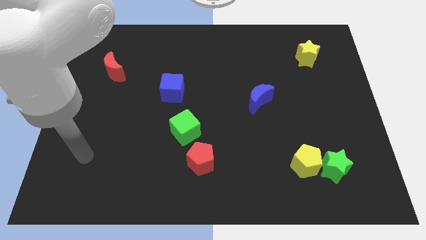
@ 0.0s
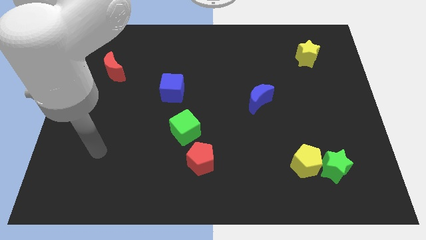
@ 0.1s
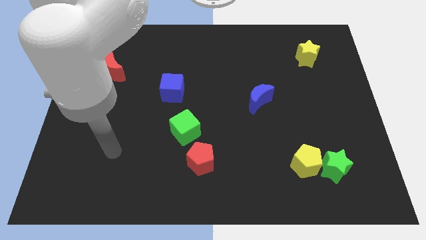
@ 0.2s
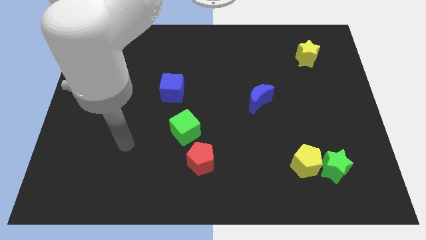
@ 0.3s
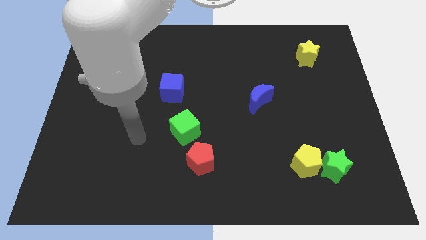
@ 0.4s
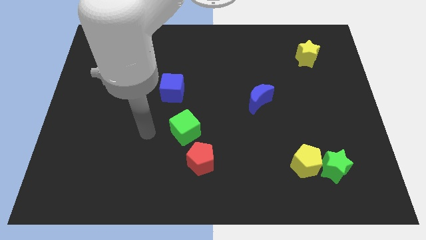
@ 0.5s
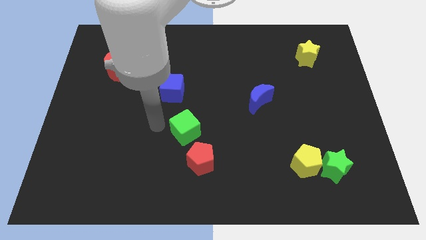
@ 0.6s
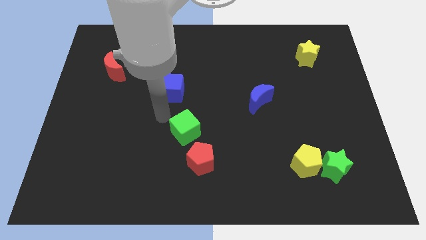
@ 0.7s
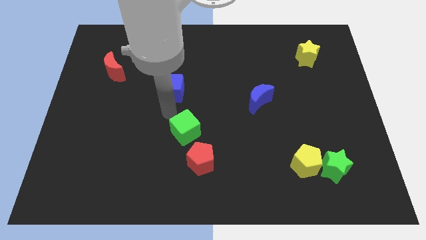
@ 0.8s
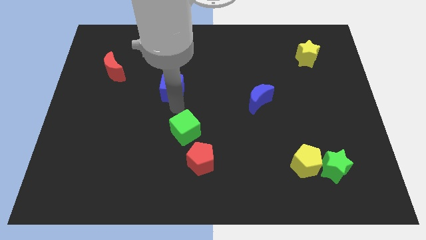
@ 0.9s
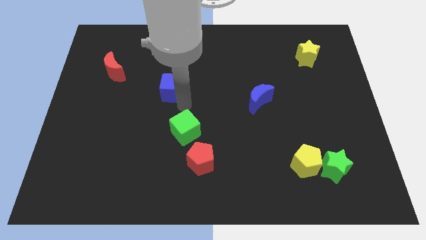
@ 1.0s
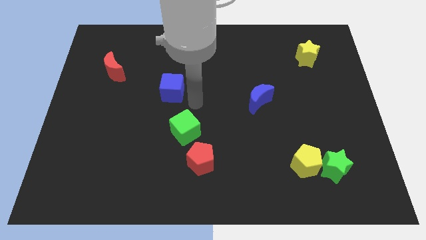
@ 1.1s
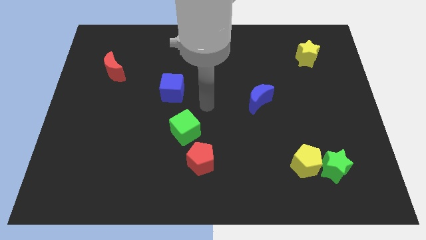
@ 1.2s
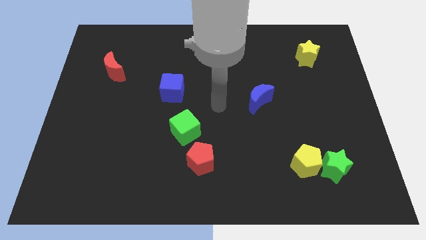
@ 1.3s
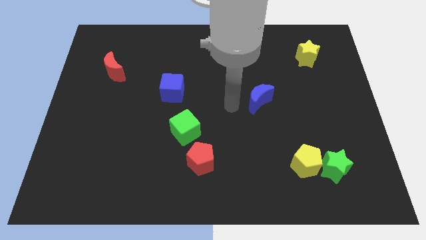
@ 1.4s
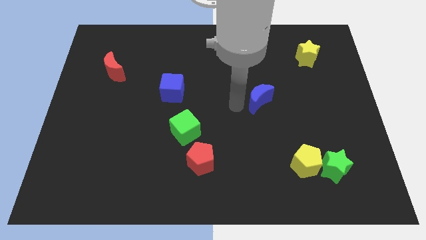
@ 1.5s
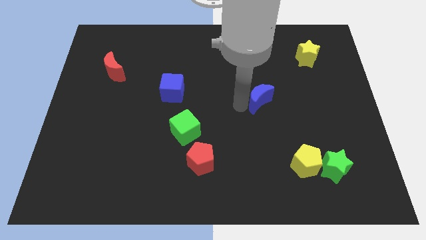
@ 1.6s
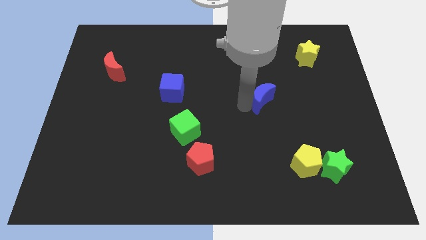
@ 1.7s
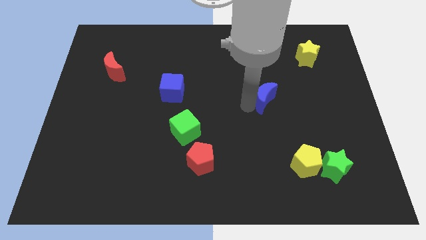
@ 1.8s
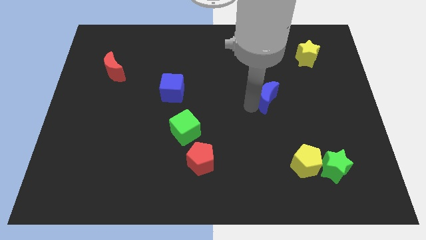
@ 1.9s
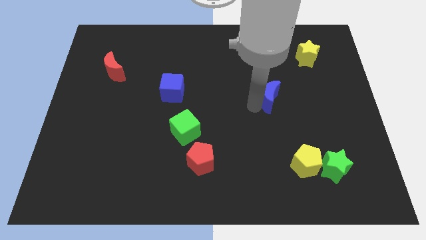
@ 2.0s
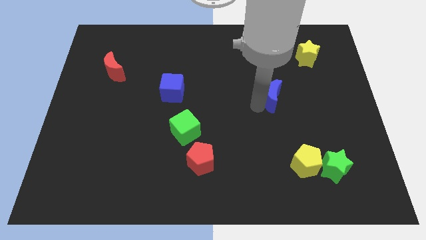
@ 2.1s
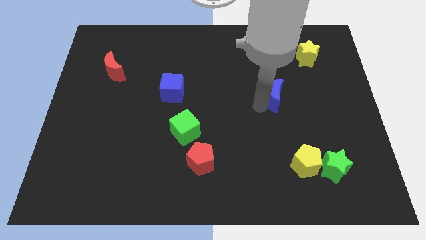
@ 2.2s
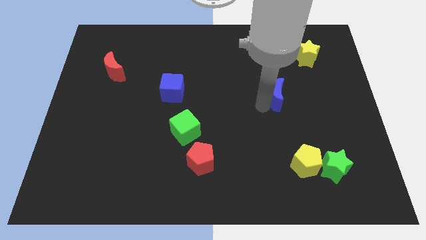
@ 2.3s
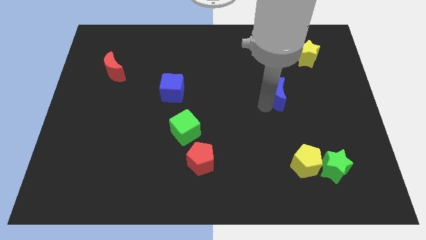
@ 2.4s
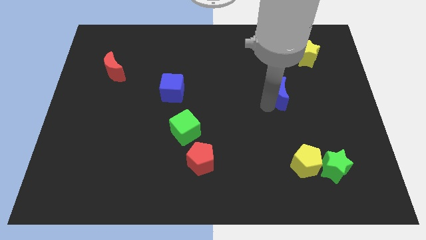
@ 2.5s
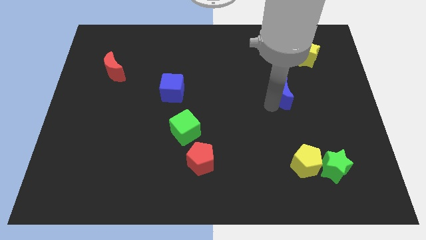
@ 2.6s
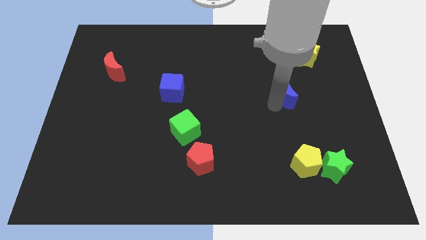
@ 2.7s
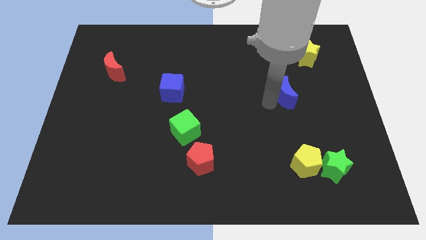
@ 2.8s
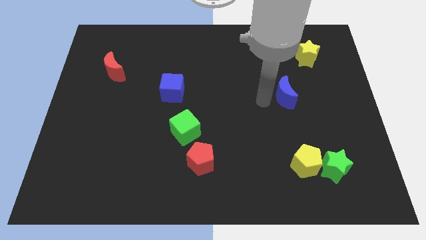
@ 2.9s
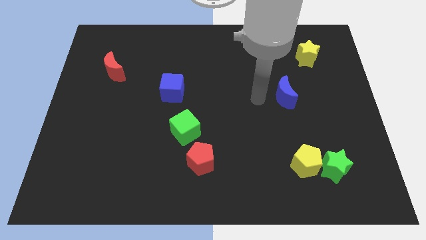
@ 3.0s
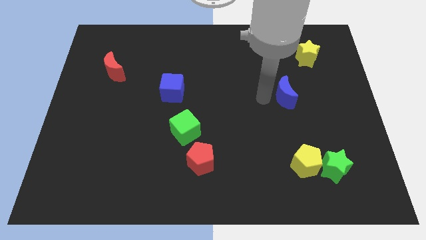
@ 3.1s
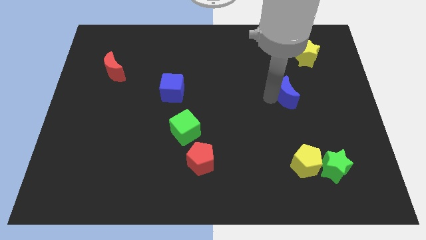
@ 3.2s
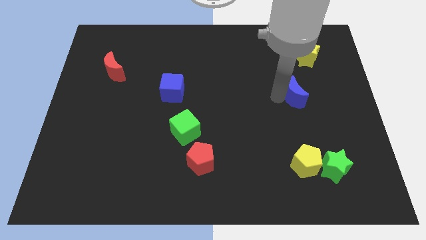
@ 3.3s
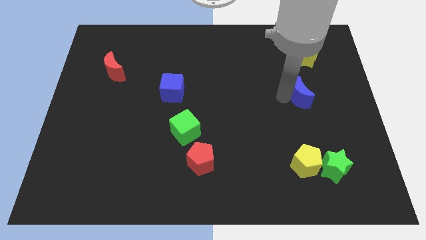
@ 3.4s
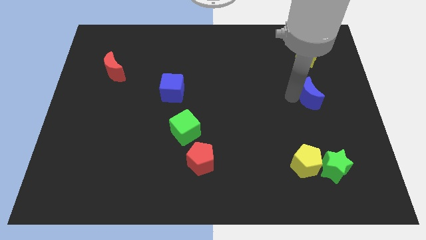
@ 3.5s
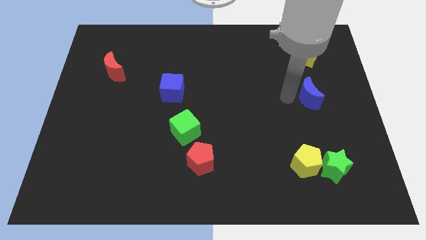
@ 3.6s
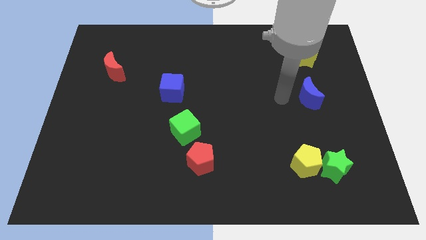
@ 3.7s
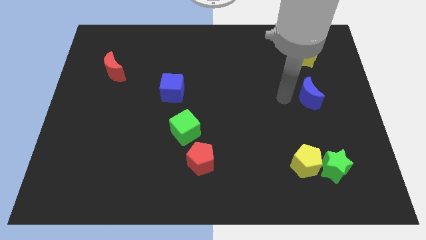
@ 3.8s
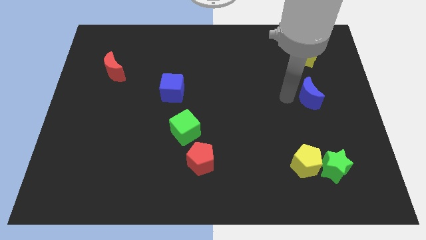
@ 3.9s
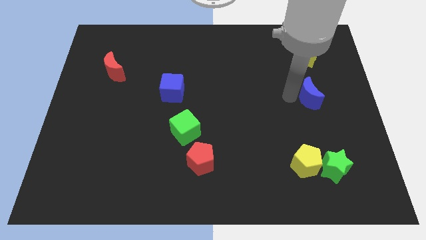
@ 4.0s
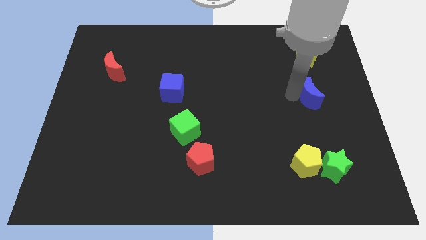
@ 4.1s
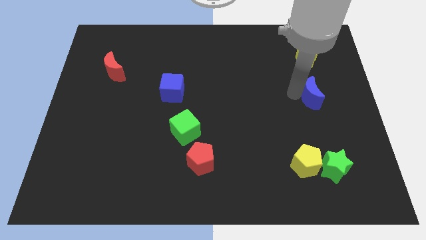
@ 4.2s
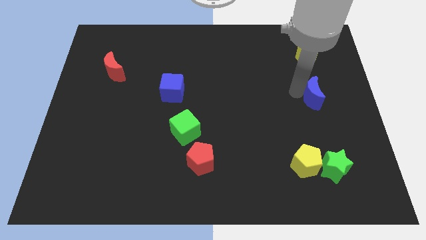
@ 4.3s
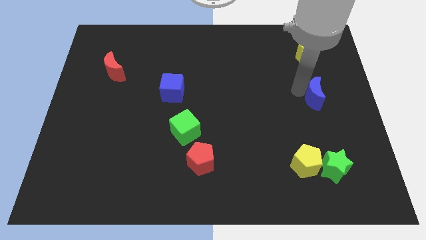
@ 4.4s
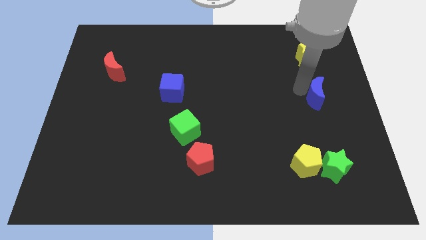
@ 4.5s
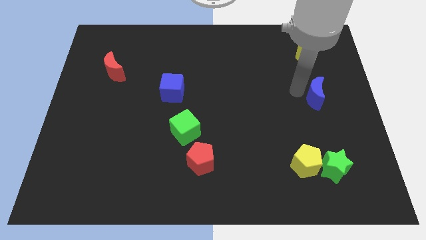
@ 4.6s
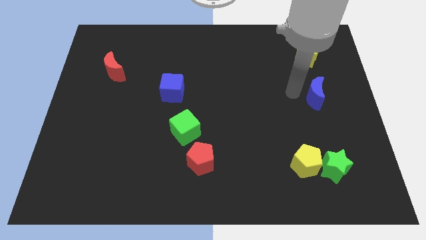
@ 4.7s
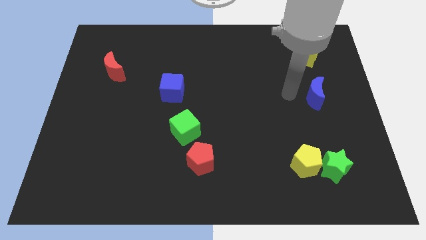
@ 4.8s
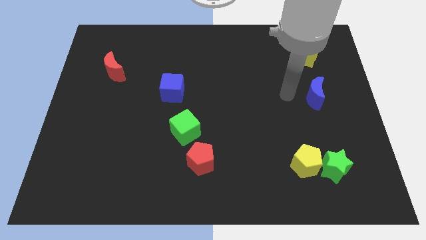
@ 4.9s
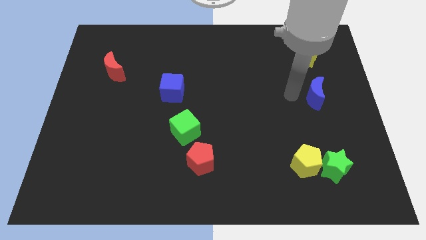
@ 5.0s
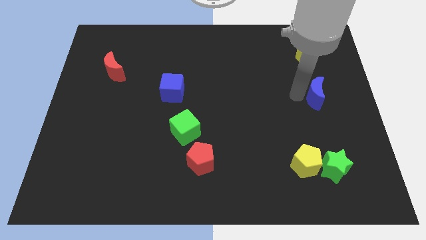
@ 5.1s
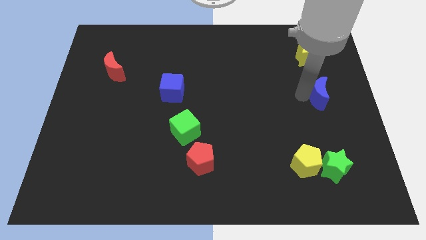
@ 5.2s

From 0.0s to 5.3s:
put the blue moon to the right side
